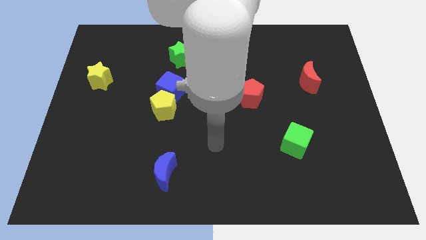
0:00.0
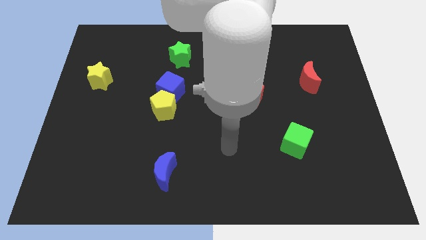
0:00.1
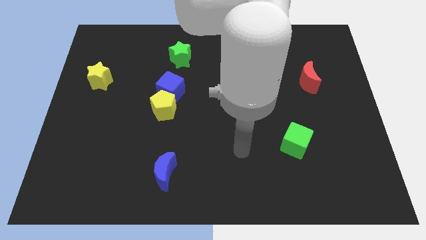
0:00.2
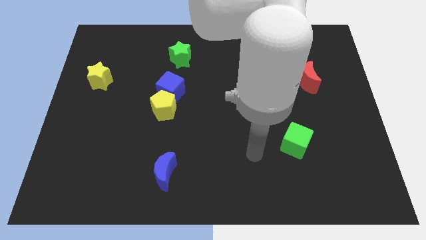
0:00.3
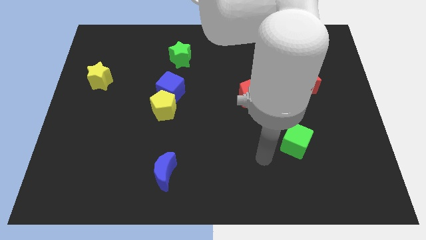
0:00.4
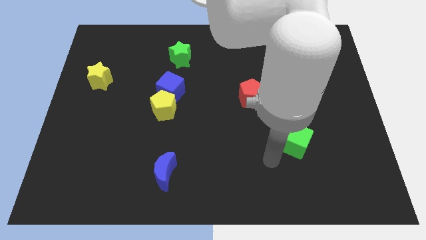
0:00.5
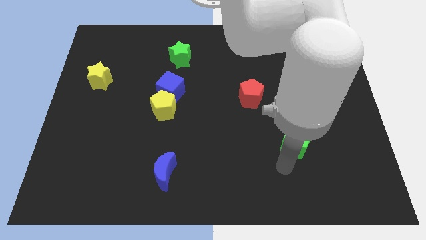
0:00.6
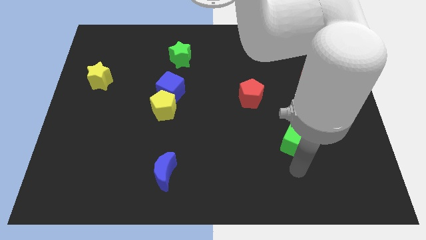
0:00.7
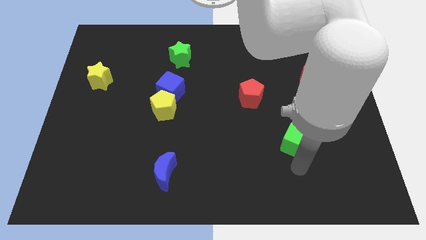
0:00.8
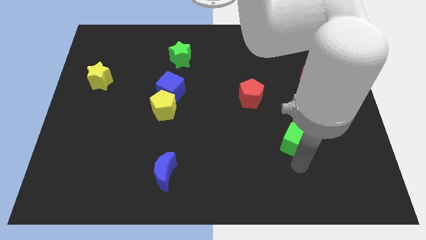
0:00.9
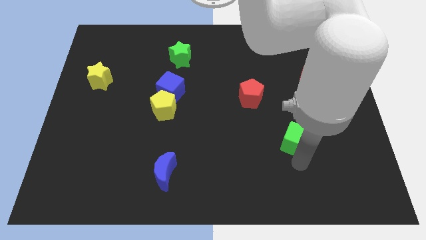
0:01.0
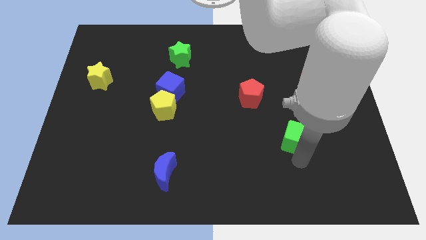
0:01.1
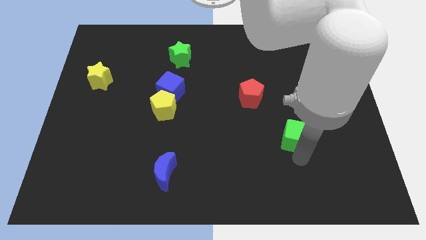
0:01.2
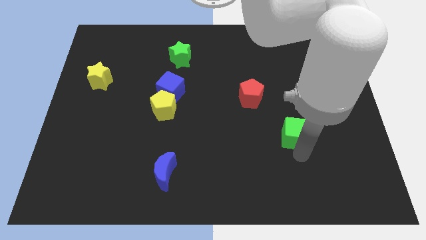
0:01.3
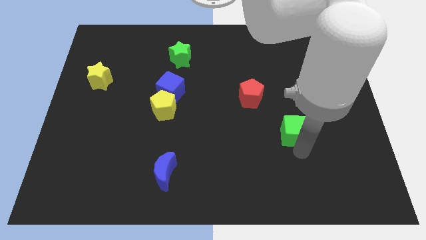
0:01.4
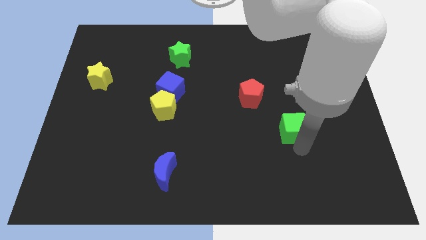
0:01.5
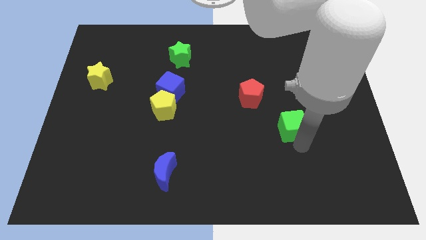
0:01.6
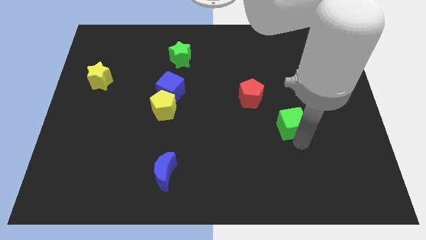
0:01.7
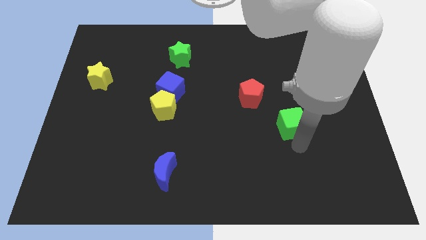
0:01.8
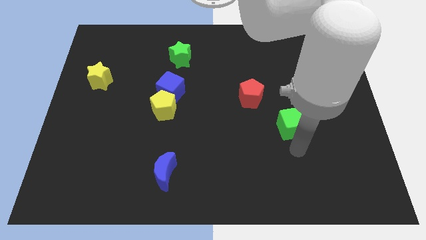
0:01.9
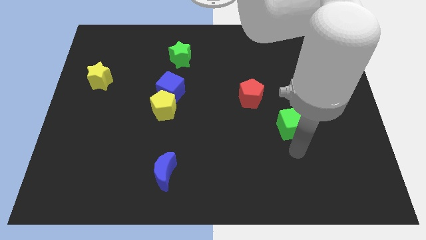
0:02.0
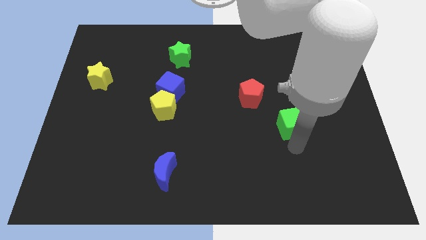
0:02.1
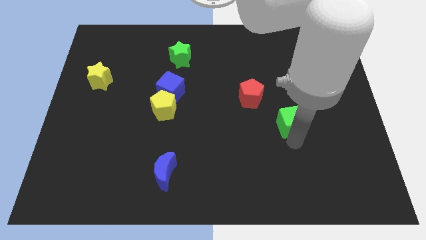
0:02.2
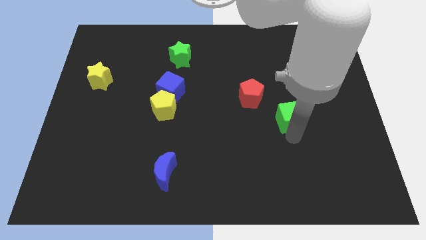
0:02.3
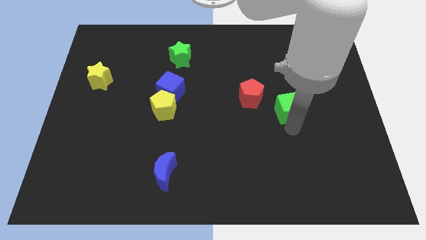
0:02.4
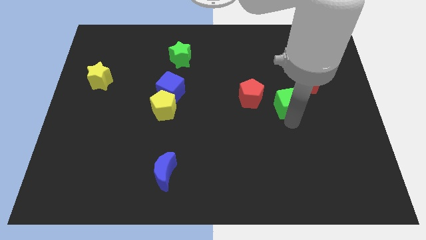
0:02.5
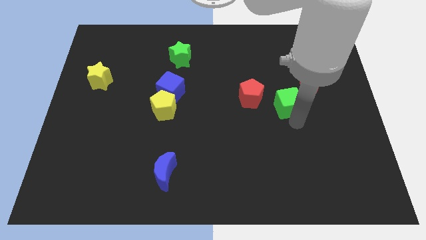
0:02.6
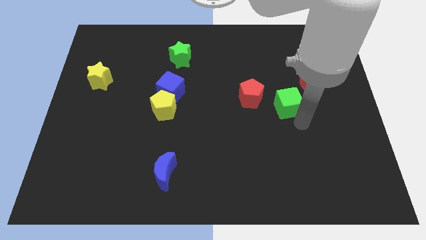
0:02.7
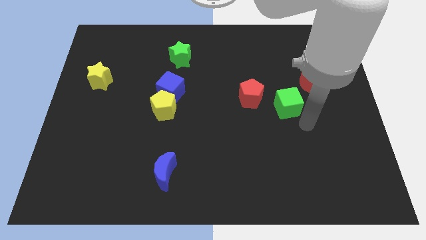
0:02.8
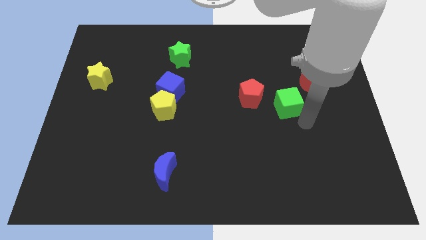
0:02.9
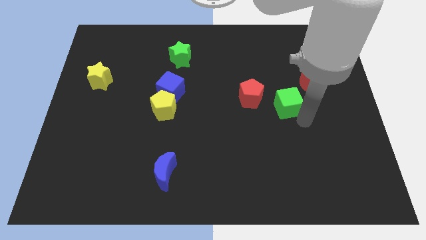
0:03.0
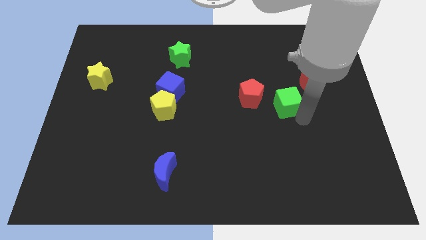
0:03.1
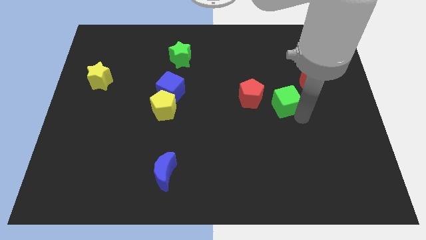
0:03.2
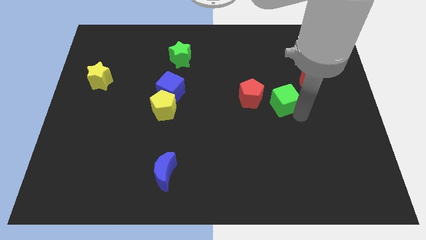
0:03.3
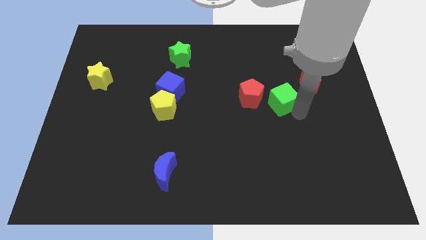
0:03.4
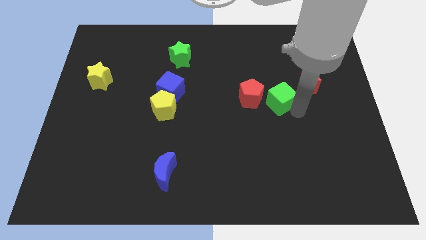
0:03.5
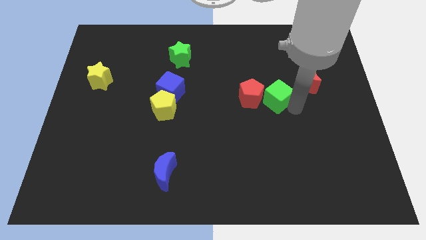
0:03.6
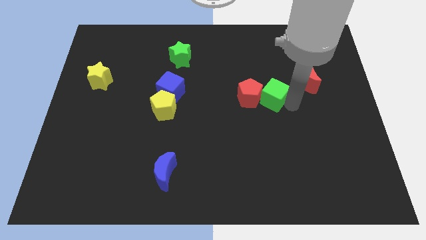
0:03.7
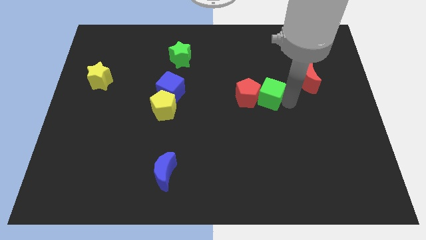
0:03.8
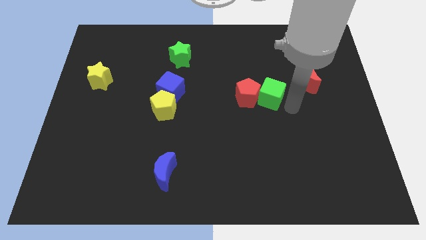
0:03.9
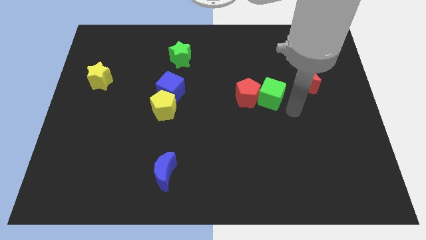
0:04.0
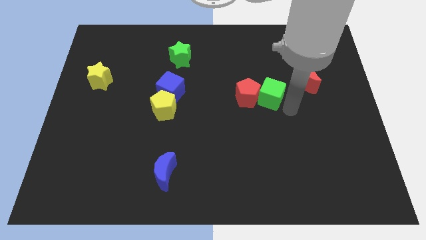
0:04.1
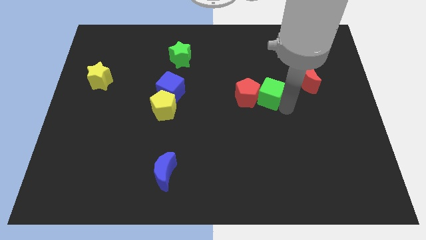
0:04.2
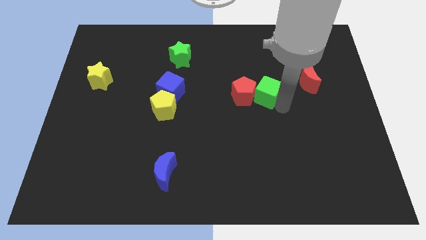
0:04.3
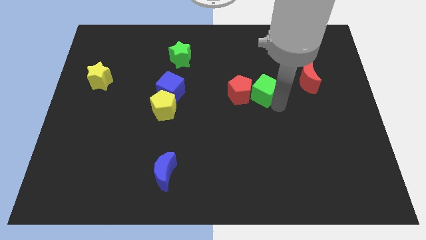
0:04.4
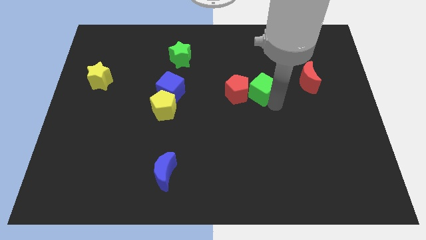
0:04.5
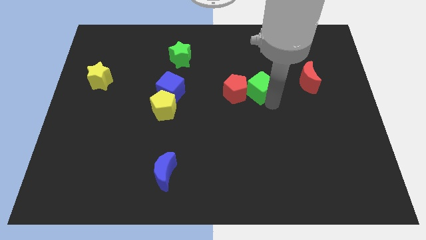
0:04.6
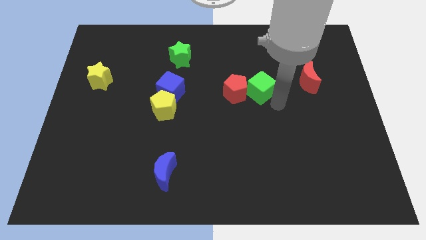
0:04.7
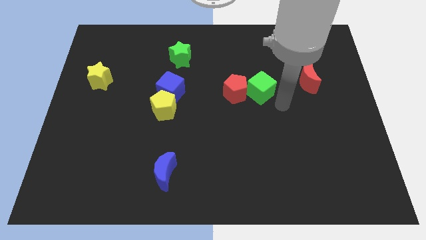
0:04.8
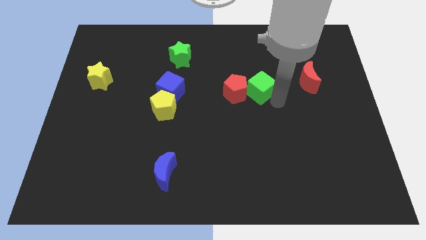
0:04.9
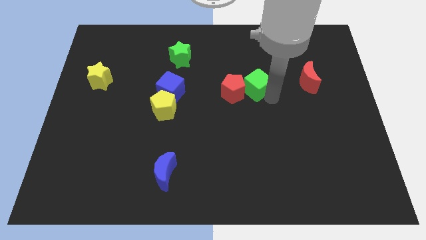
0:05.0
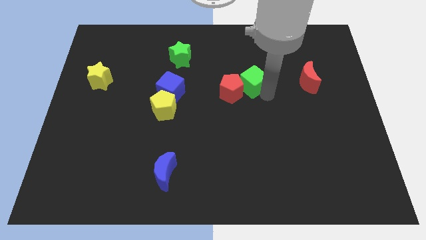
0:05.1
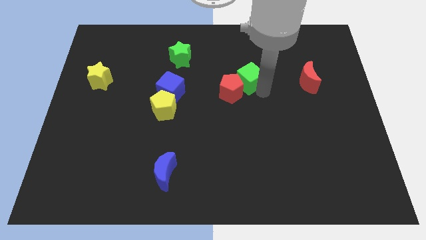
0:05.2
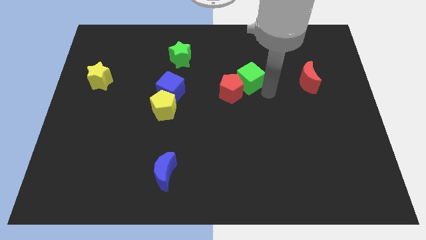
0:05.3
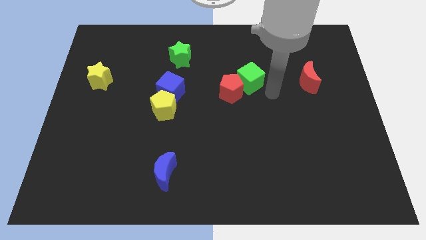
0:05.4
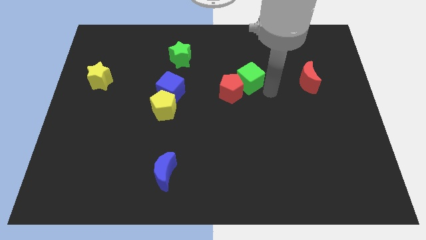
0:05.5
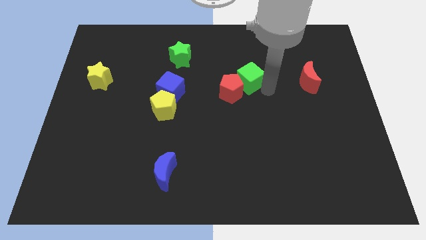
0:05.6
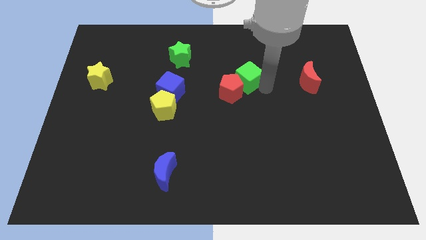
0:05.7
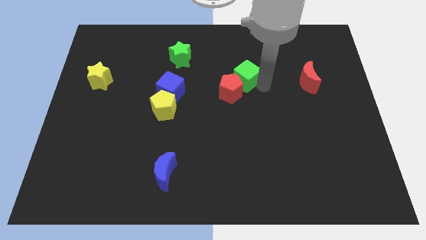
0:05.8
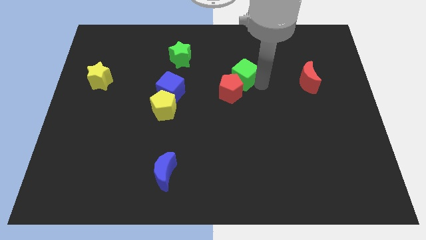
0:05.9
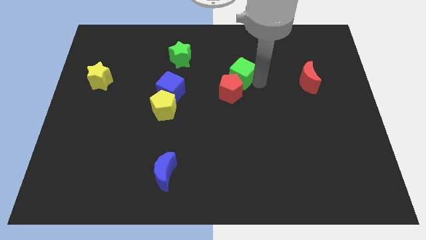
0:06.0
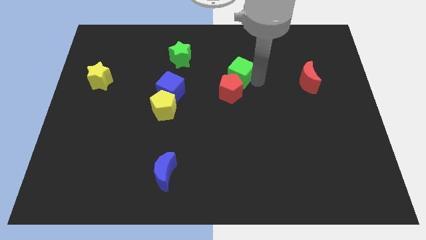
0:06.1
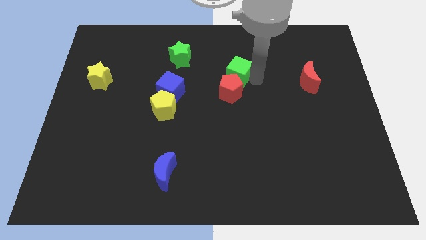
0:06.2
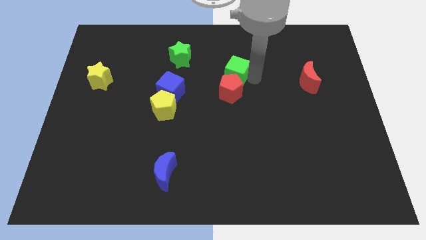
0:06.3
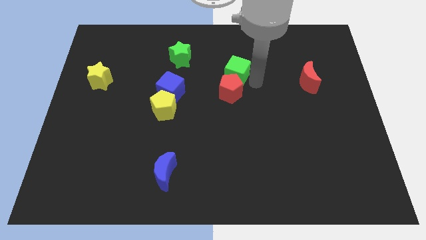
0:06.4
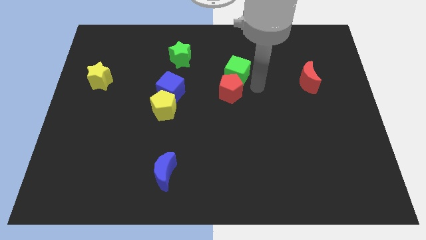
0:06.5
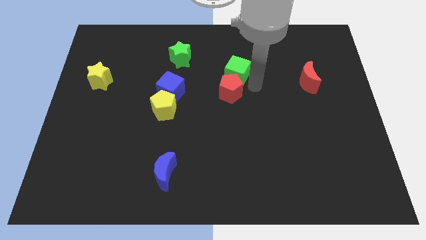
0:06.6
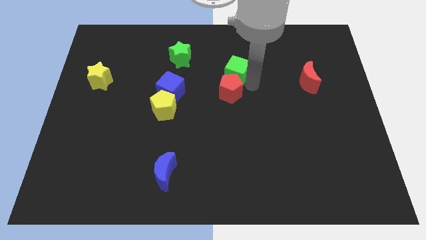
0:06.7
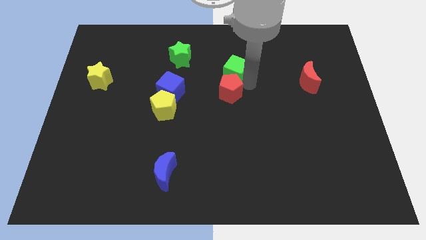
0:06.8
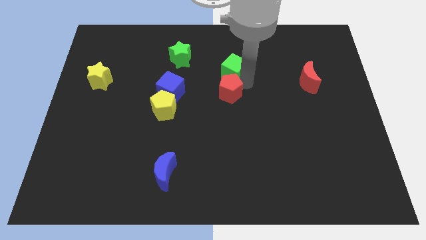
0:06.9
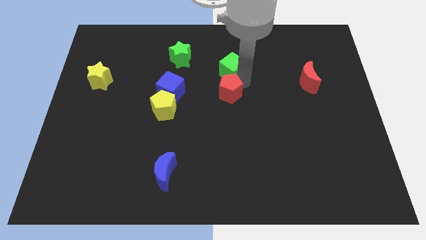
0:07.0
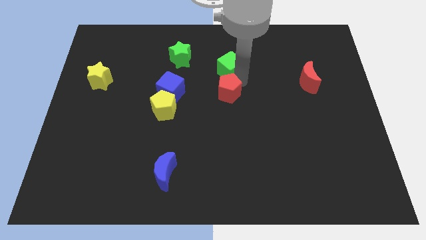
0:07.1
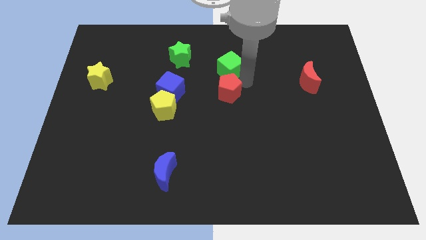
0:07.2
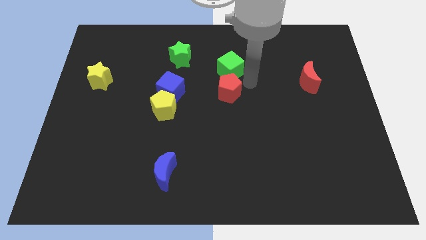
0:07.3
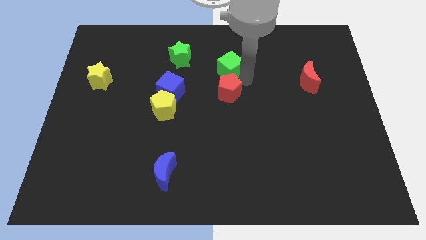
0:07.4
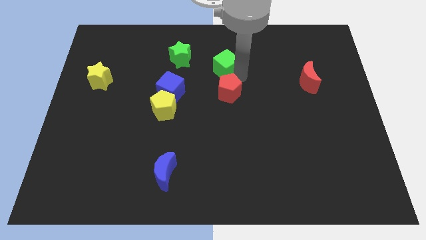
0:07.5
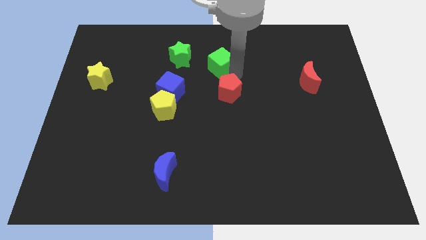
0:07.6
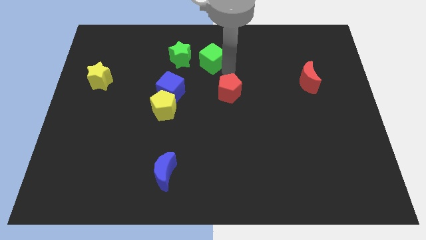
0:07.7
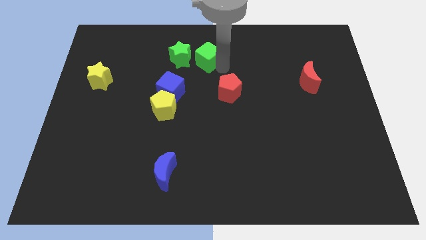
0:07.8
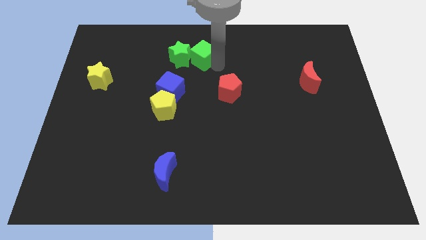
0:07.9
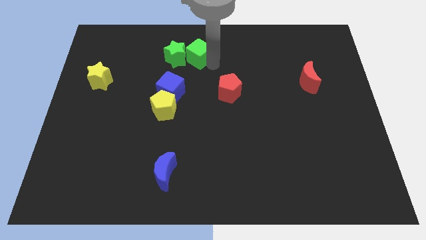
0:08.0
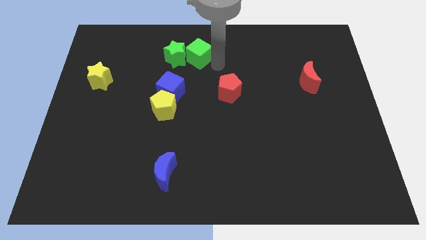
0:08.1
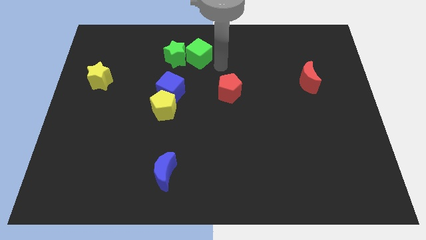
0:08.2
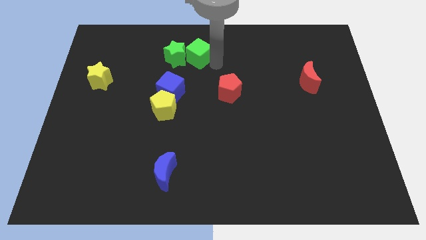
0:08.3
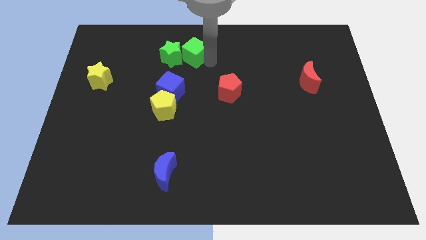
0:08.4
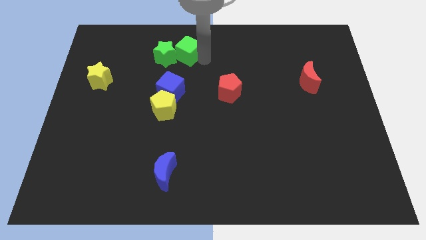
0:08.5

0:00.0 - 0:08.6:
put the green cube above the blue cube
